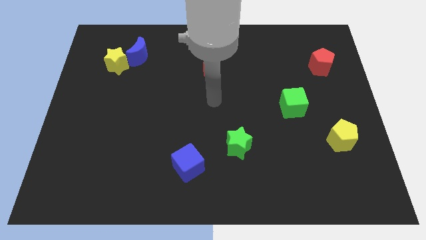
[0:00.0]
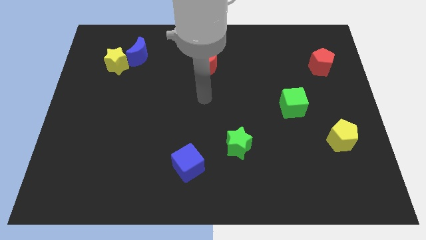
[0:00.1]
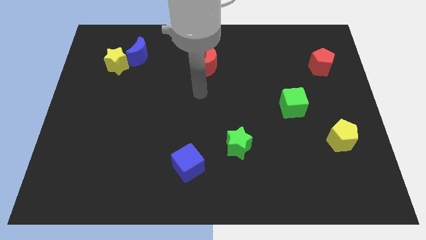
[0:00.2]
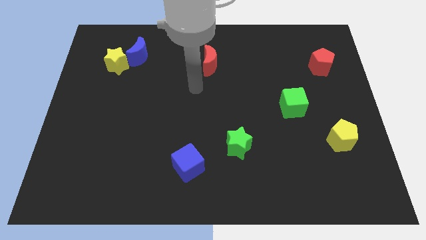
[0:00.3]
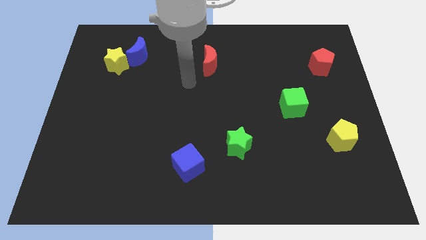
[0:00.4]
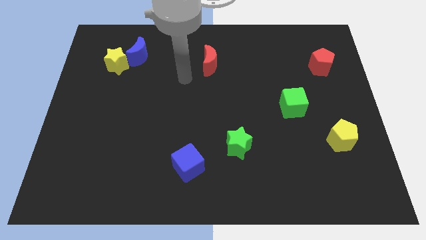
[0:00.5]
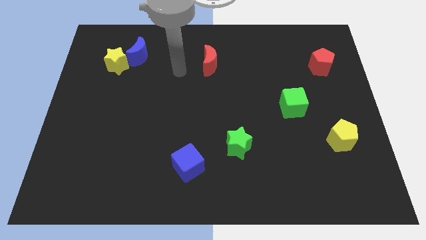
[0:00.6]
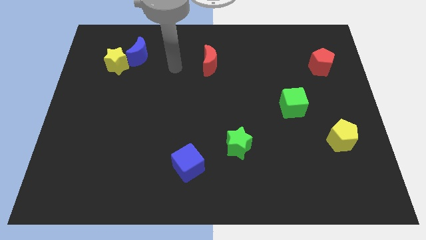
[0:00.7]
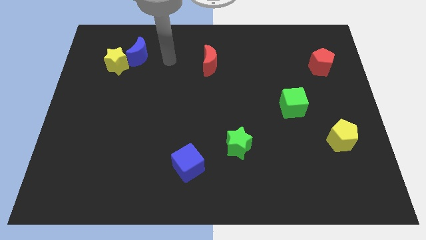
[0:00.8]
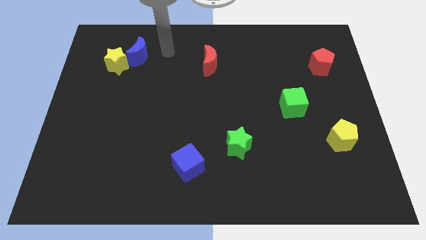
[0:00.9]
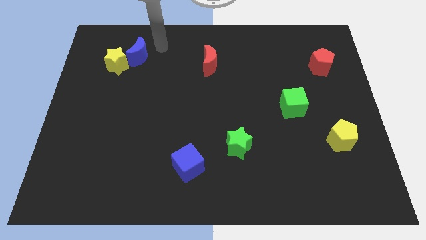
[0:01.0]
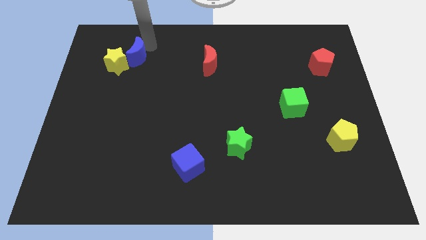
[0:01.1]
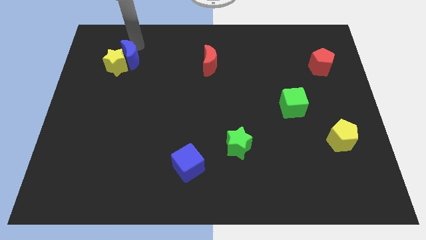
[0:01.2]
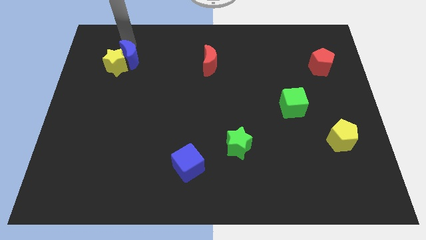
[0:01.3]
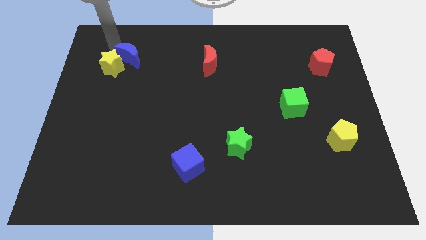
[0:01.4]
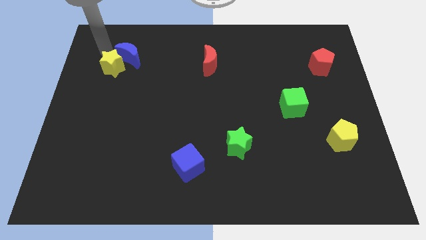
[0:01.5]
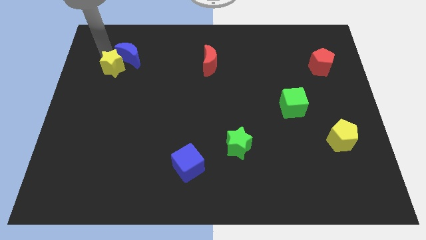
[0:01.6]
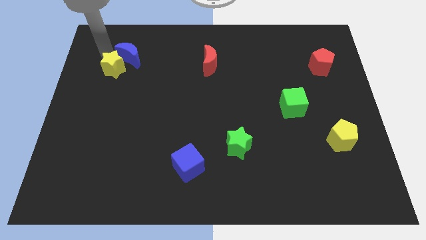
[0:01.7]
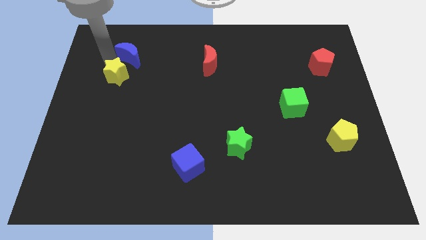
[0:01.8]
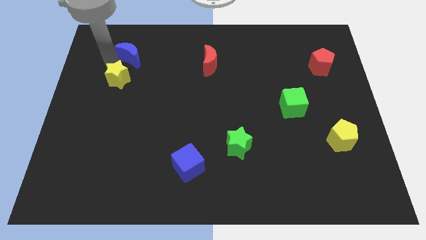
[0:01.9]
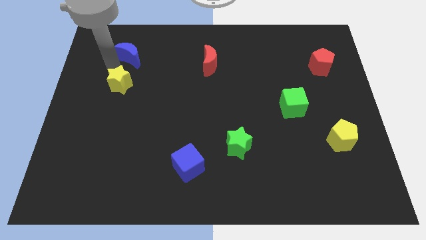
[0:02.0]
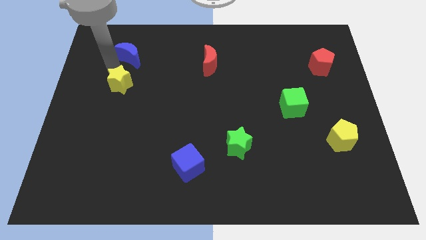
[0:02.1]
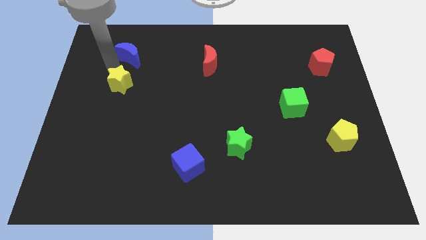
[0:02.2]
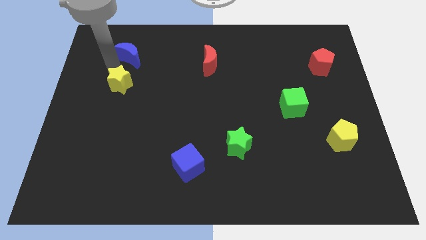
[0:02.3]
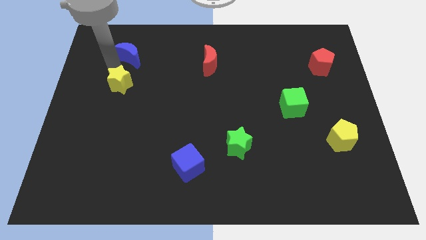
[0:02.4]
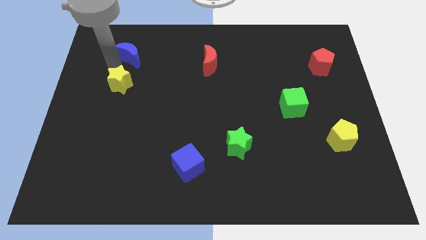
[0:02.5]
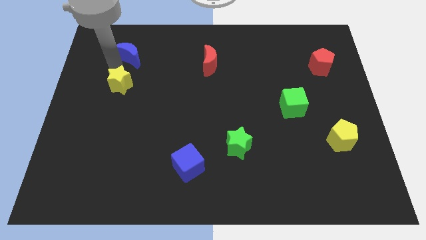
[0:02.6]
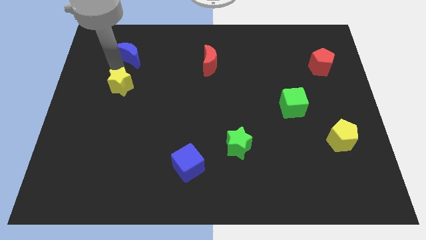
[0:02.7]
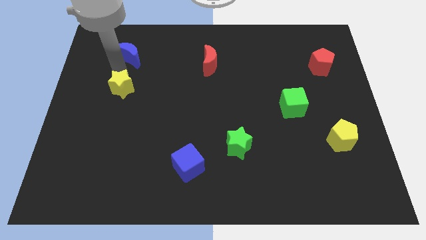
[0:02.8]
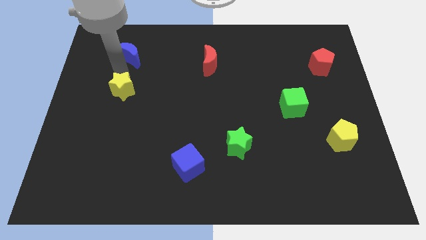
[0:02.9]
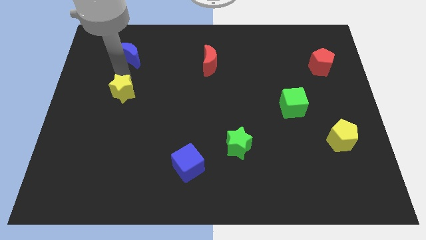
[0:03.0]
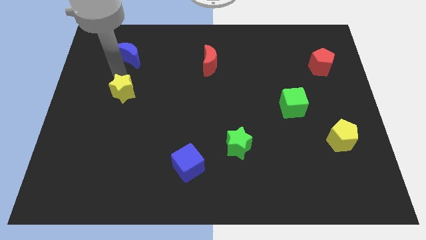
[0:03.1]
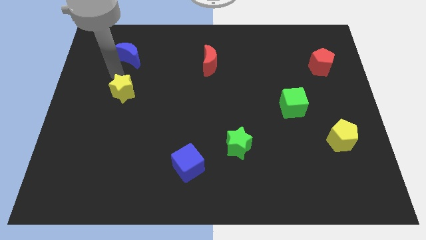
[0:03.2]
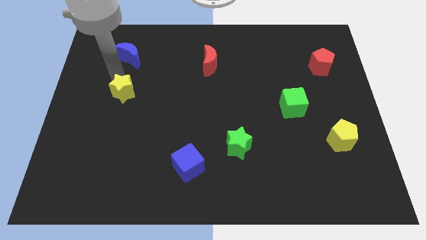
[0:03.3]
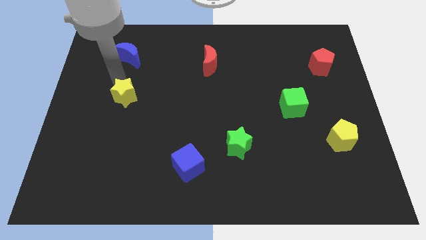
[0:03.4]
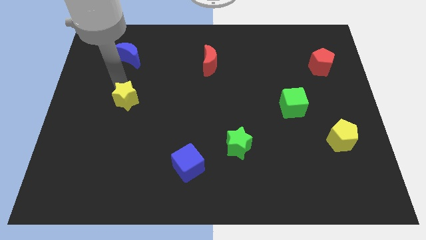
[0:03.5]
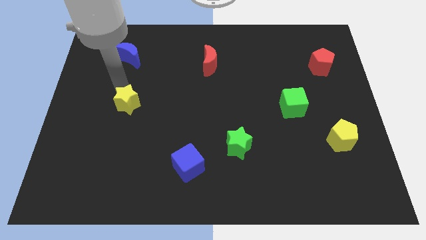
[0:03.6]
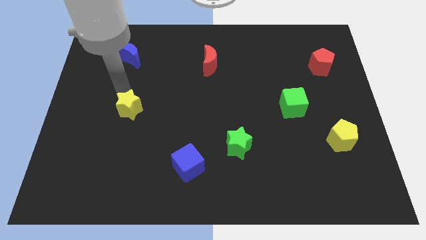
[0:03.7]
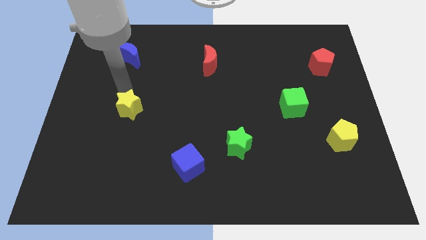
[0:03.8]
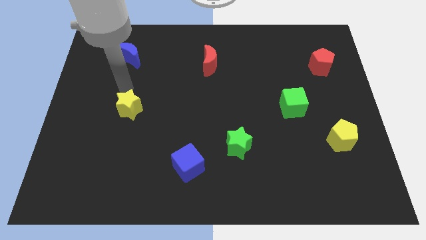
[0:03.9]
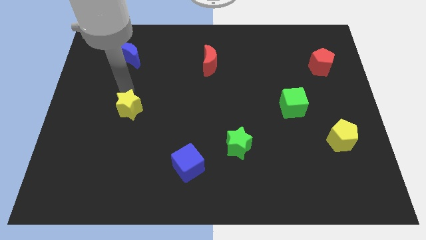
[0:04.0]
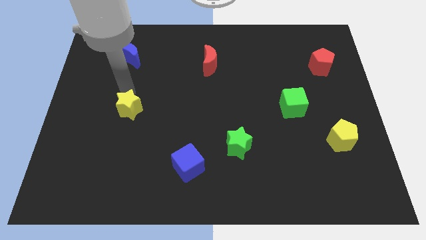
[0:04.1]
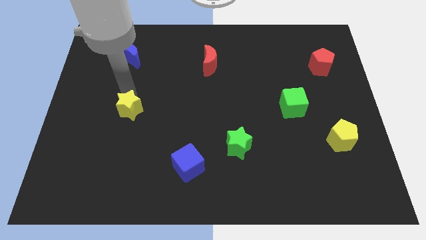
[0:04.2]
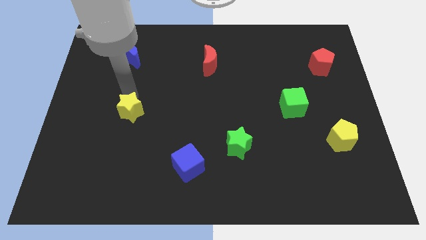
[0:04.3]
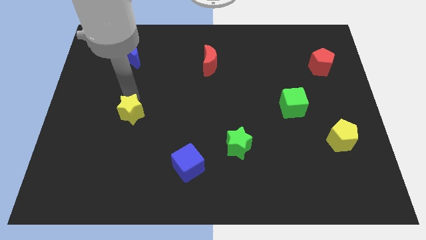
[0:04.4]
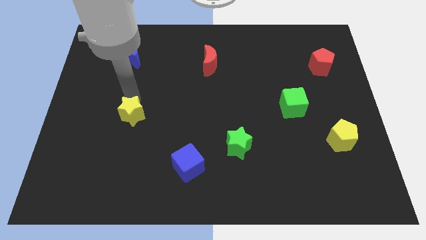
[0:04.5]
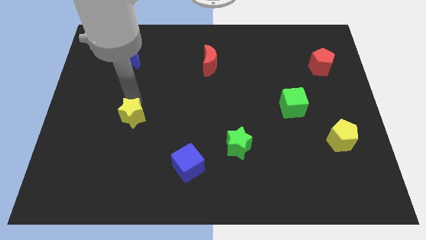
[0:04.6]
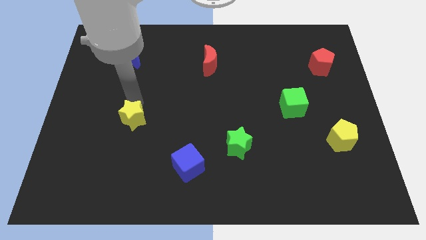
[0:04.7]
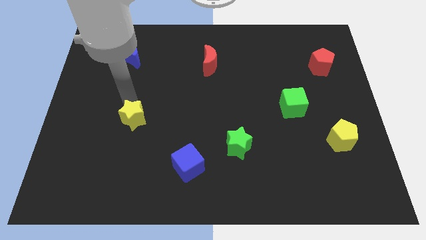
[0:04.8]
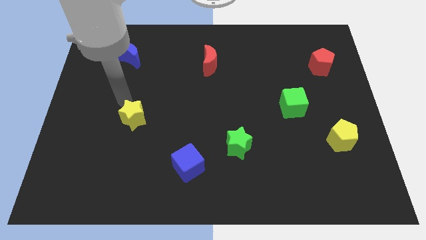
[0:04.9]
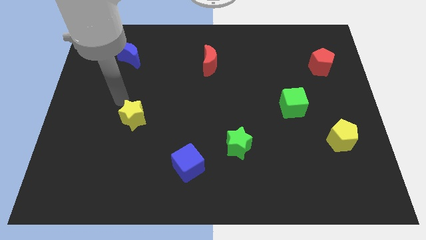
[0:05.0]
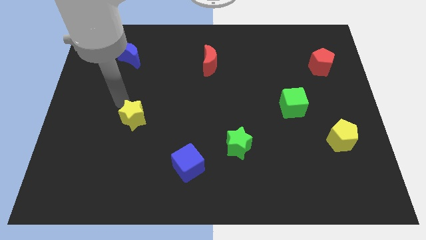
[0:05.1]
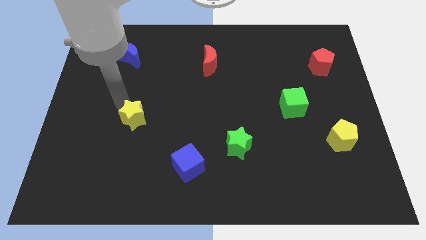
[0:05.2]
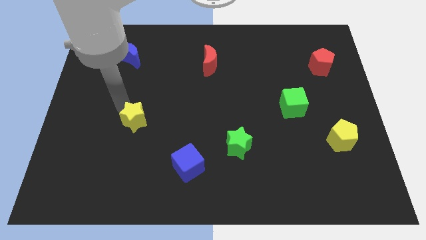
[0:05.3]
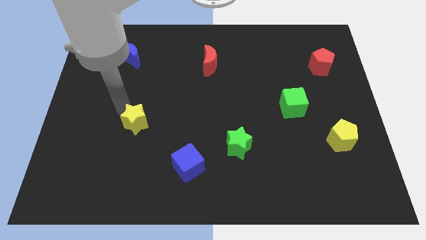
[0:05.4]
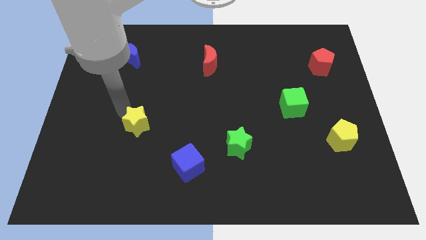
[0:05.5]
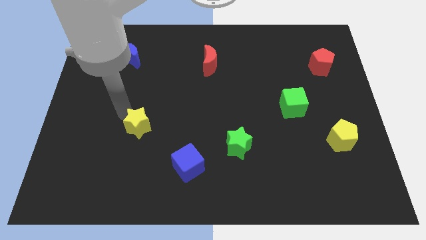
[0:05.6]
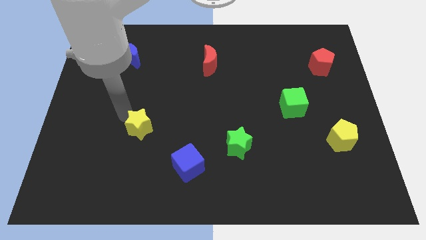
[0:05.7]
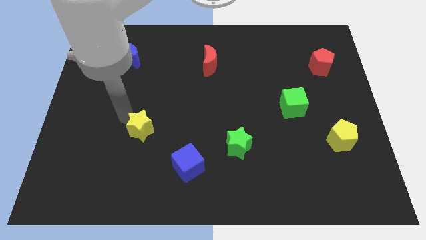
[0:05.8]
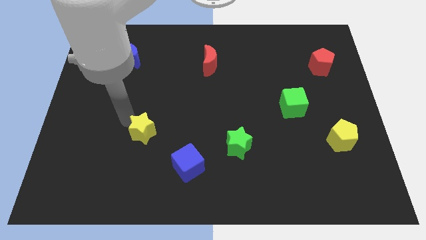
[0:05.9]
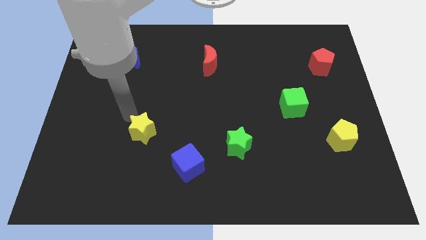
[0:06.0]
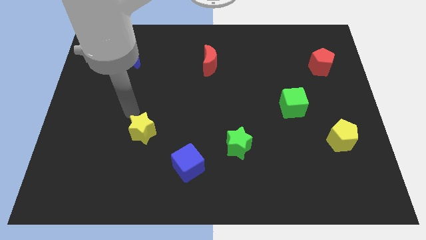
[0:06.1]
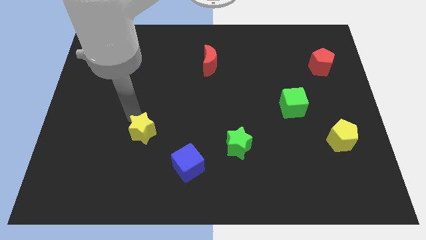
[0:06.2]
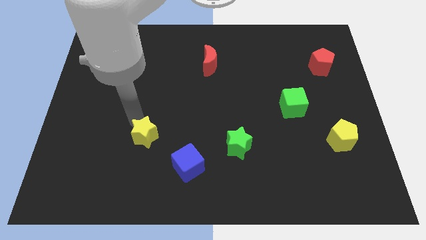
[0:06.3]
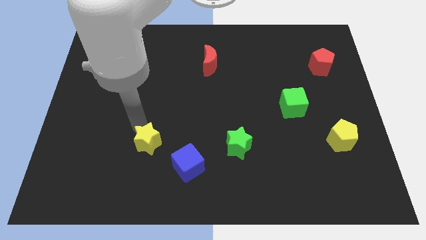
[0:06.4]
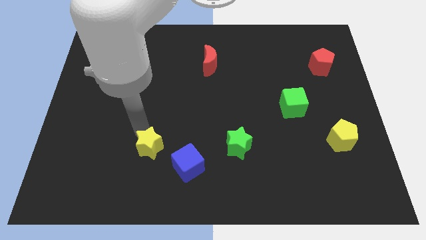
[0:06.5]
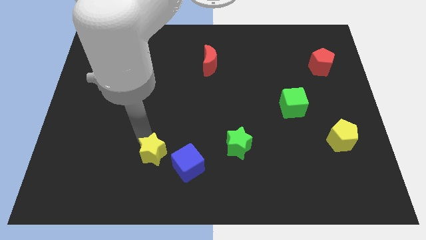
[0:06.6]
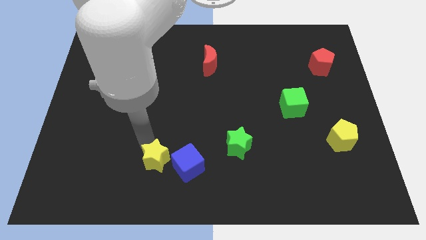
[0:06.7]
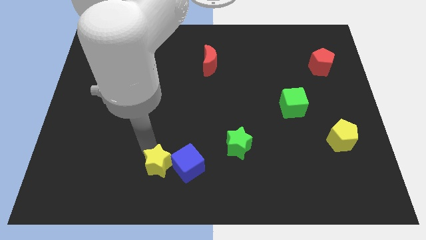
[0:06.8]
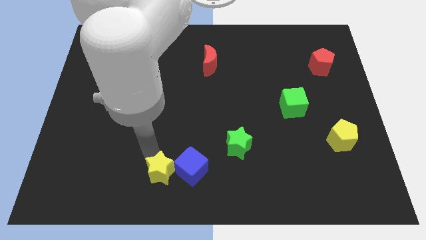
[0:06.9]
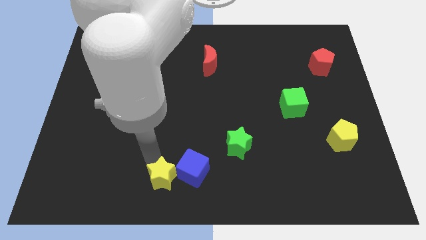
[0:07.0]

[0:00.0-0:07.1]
move the yellow star to the bottom
